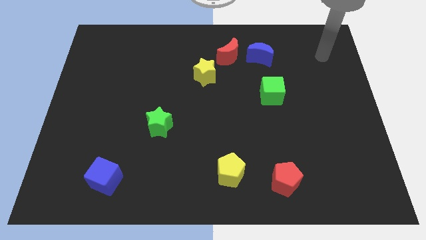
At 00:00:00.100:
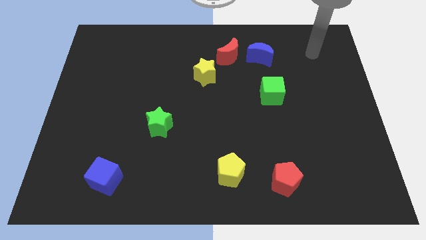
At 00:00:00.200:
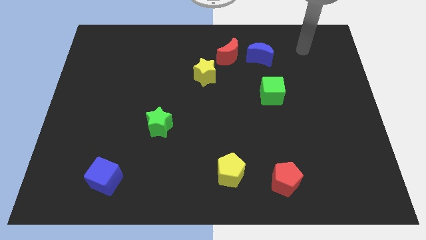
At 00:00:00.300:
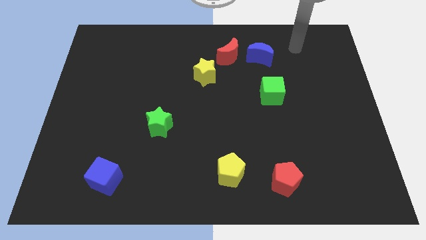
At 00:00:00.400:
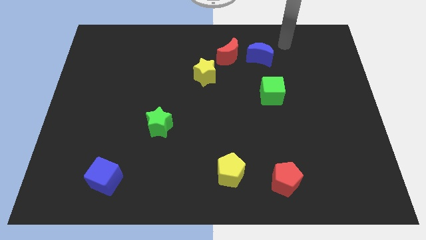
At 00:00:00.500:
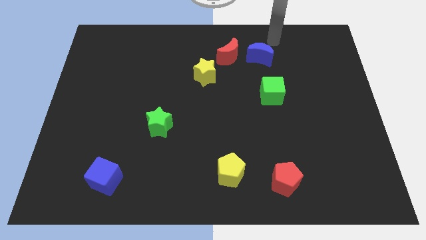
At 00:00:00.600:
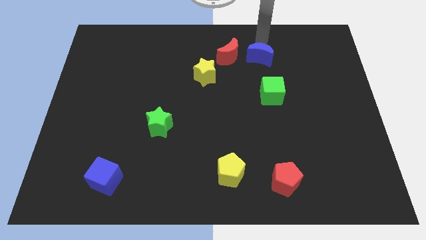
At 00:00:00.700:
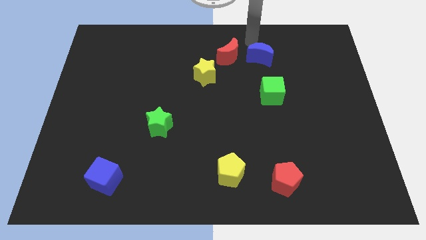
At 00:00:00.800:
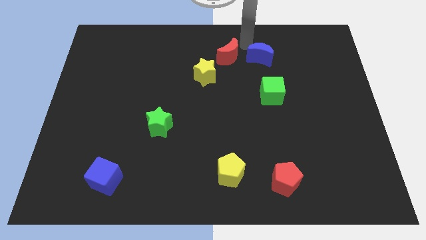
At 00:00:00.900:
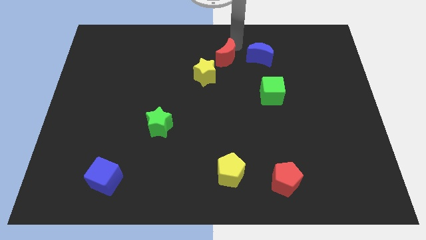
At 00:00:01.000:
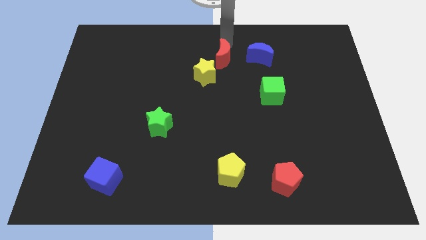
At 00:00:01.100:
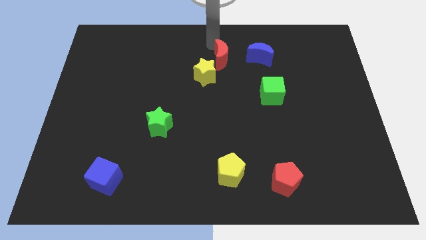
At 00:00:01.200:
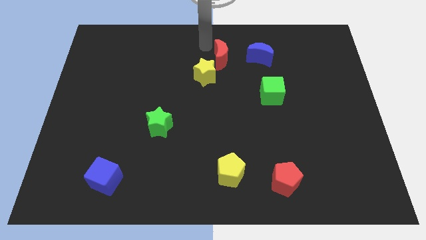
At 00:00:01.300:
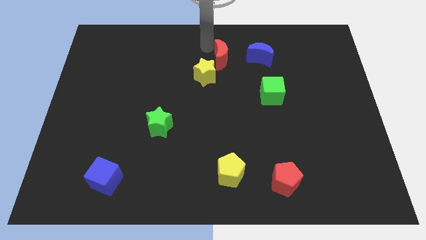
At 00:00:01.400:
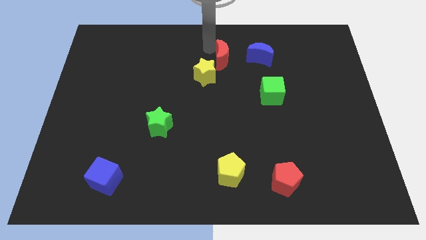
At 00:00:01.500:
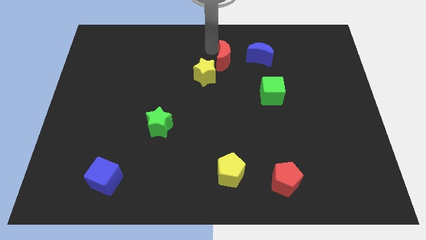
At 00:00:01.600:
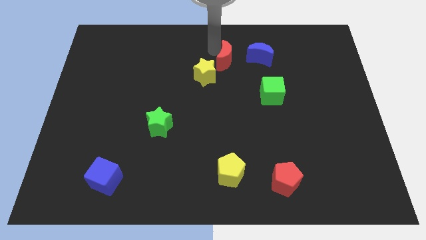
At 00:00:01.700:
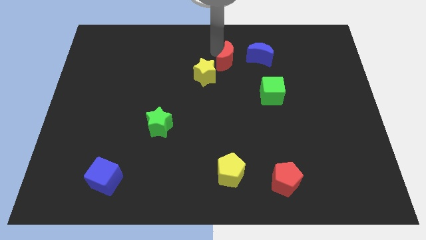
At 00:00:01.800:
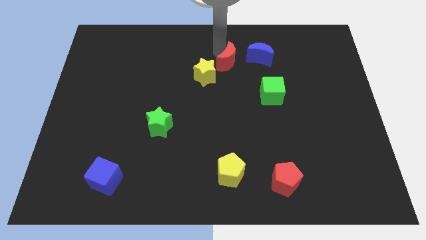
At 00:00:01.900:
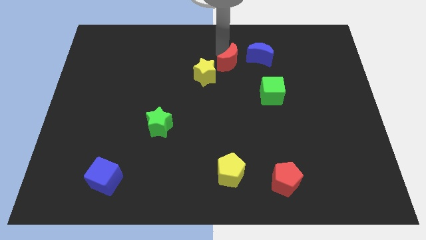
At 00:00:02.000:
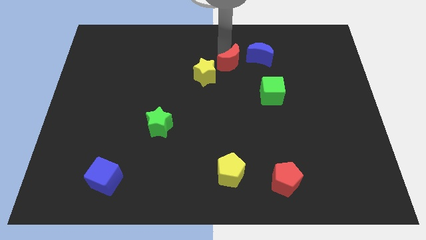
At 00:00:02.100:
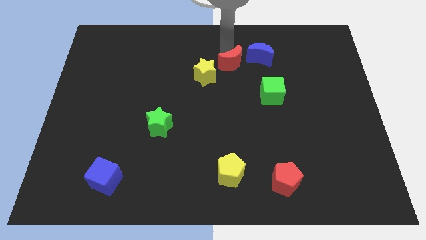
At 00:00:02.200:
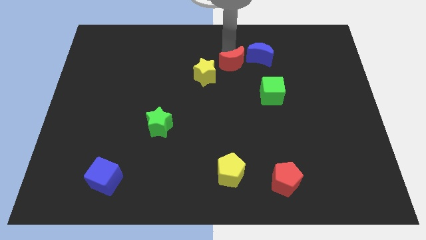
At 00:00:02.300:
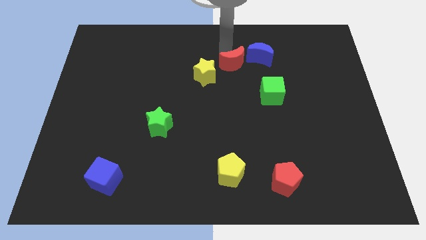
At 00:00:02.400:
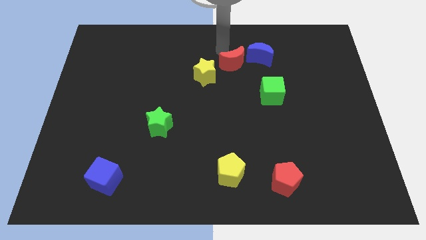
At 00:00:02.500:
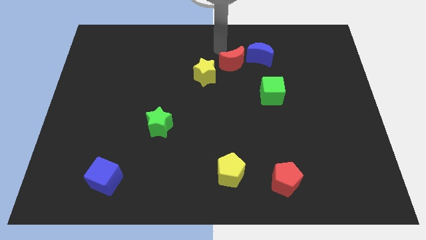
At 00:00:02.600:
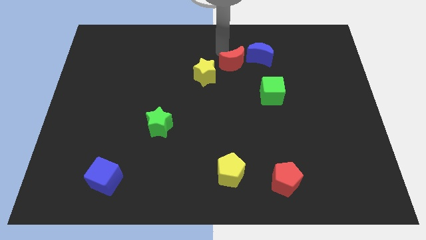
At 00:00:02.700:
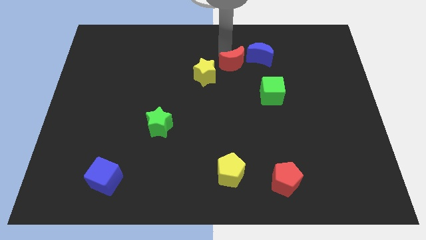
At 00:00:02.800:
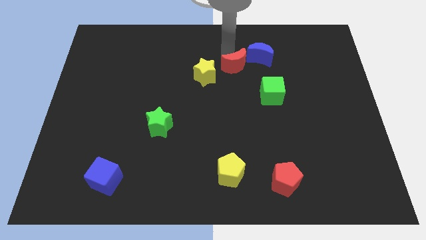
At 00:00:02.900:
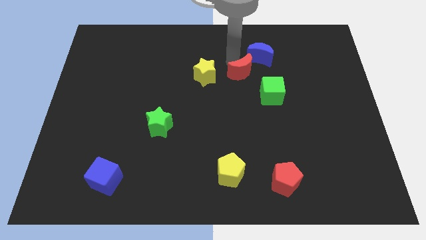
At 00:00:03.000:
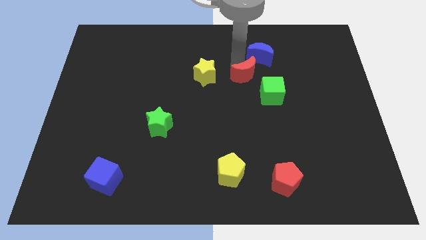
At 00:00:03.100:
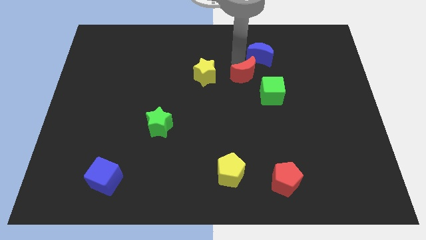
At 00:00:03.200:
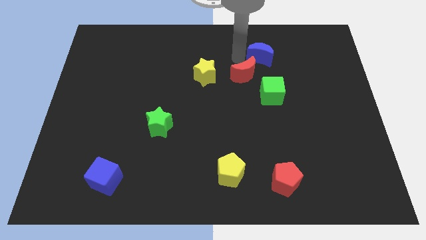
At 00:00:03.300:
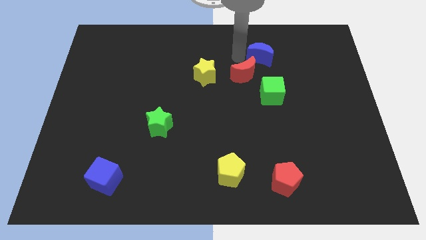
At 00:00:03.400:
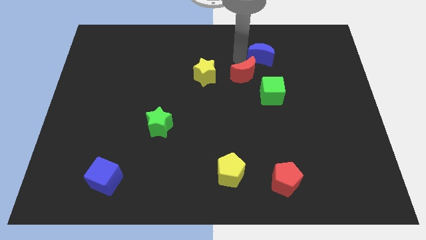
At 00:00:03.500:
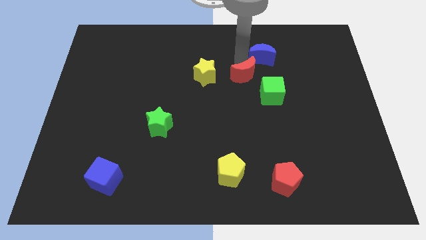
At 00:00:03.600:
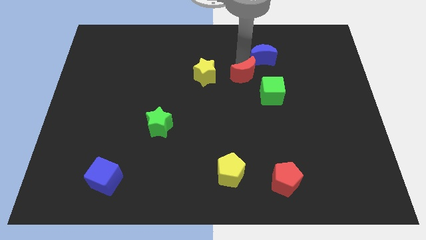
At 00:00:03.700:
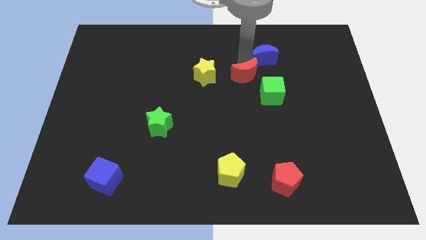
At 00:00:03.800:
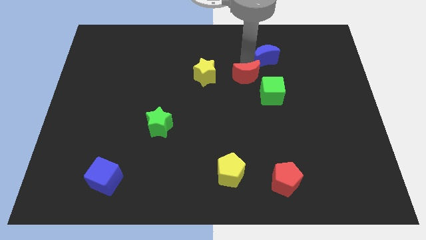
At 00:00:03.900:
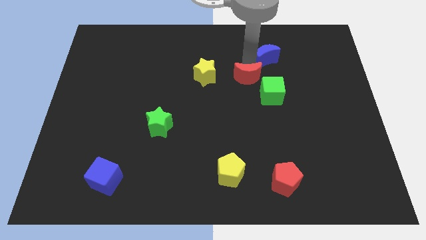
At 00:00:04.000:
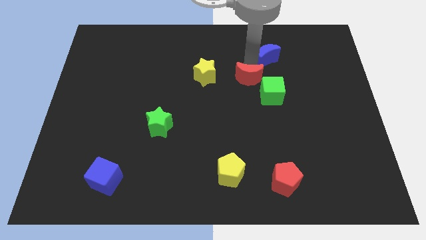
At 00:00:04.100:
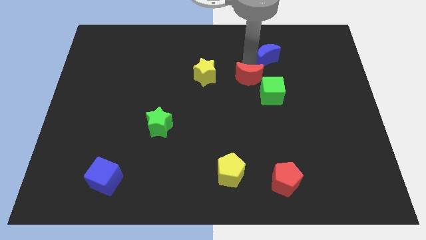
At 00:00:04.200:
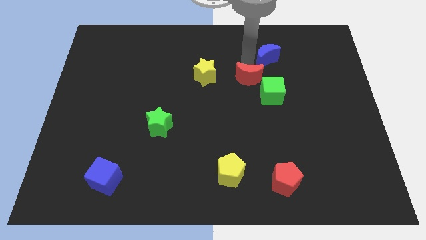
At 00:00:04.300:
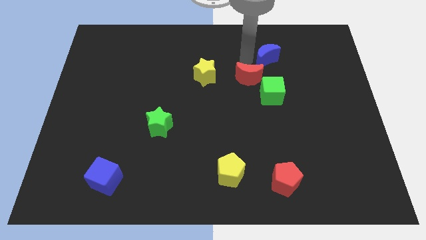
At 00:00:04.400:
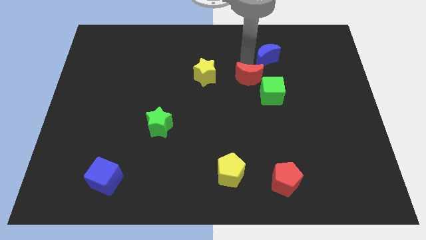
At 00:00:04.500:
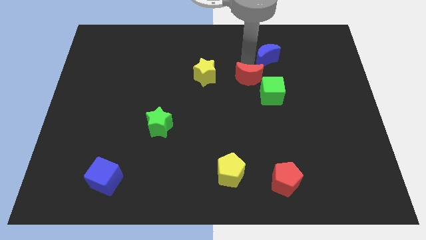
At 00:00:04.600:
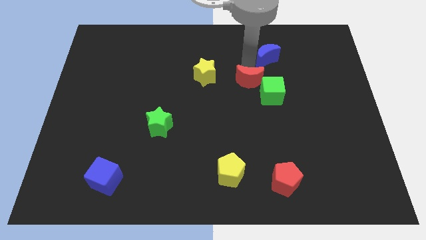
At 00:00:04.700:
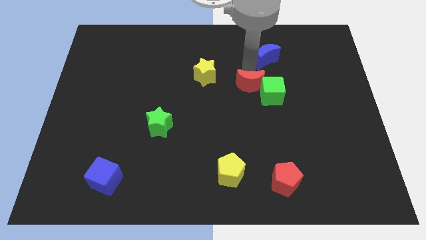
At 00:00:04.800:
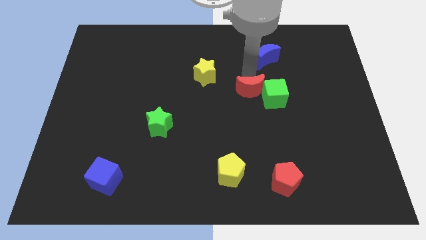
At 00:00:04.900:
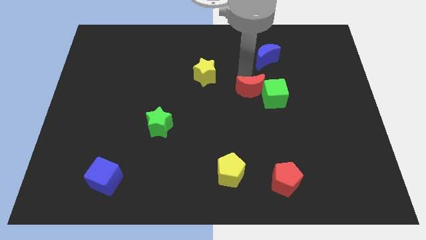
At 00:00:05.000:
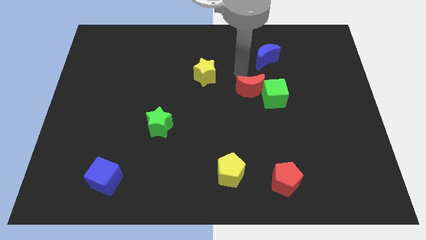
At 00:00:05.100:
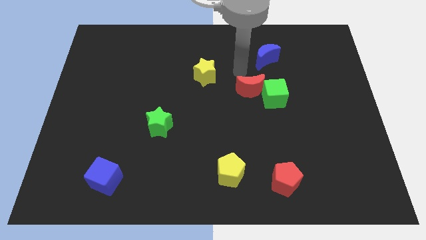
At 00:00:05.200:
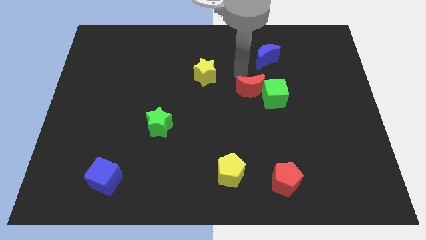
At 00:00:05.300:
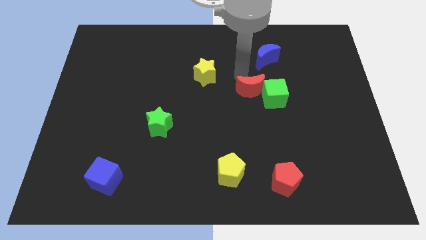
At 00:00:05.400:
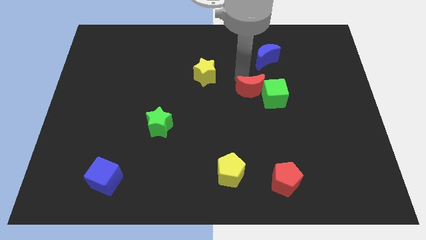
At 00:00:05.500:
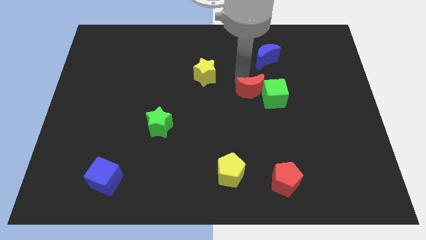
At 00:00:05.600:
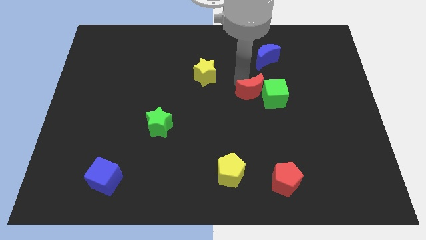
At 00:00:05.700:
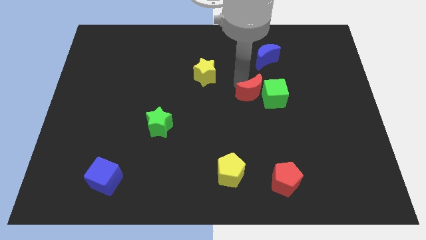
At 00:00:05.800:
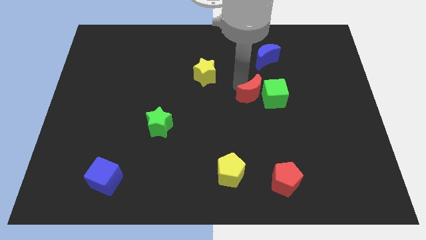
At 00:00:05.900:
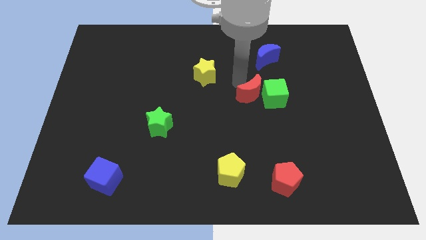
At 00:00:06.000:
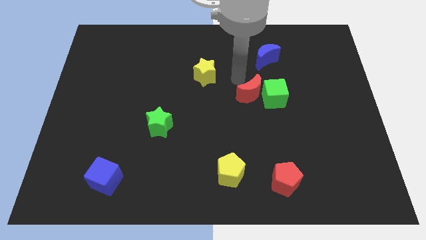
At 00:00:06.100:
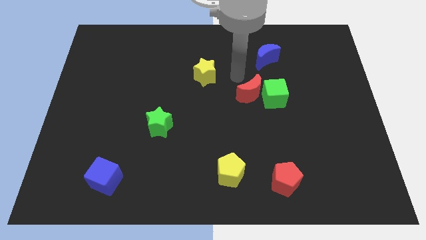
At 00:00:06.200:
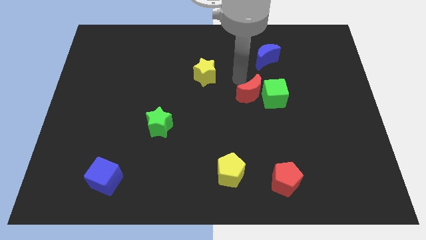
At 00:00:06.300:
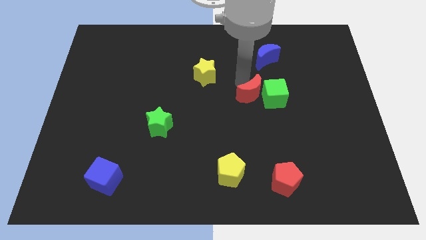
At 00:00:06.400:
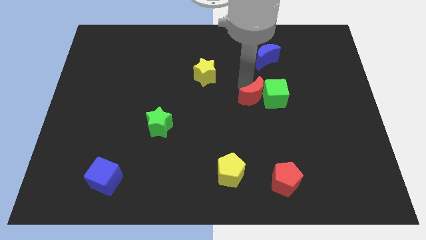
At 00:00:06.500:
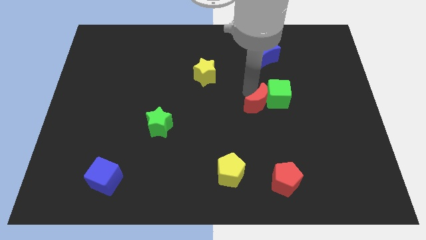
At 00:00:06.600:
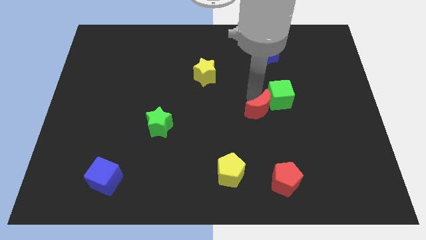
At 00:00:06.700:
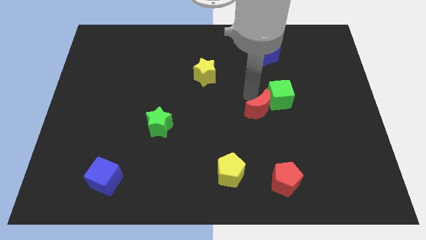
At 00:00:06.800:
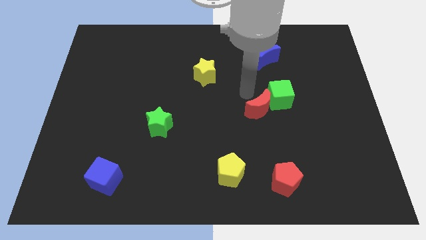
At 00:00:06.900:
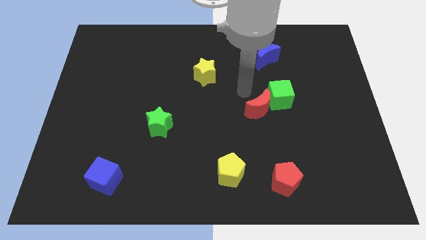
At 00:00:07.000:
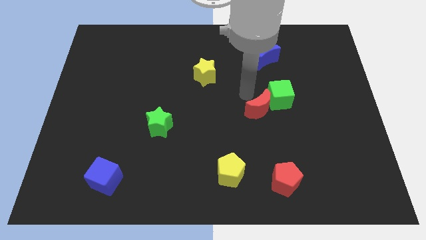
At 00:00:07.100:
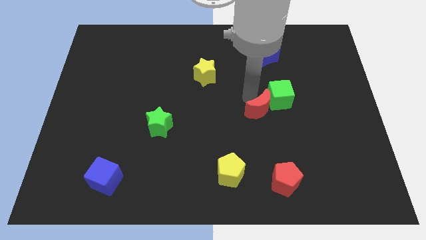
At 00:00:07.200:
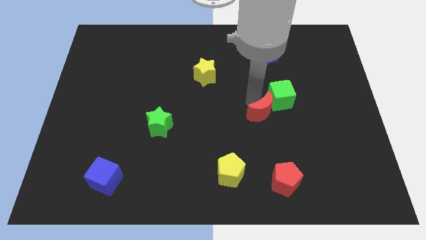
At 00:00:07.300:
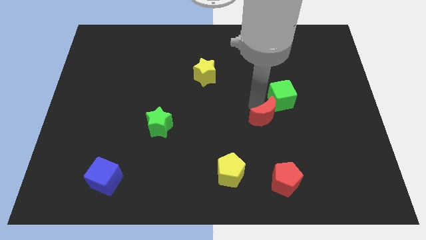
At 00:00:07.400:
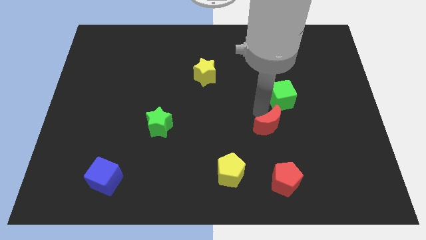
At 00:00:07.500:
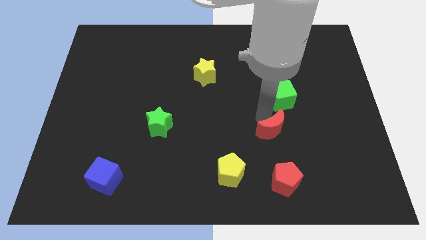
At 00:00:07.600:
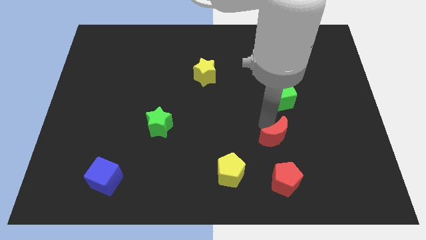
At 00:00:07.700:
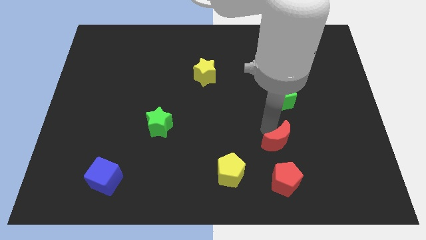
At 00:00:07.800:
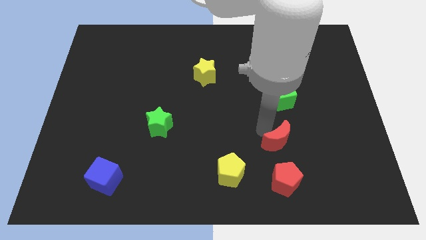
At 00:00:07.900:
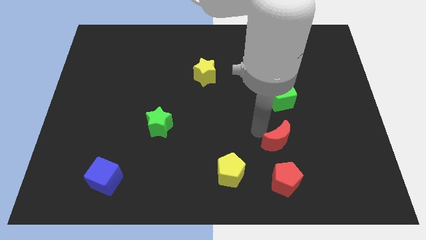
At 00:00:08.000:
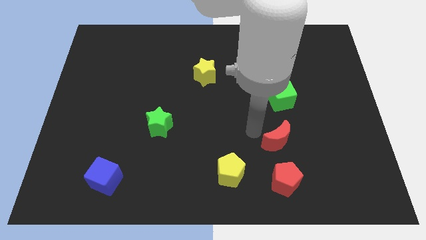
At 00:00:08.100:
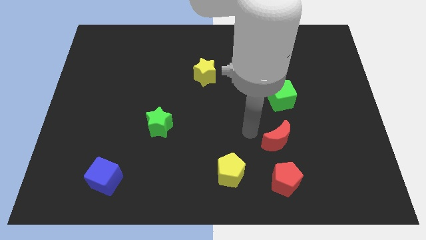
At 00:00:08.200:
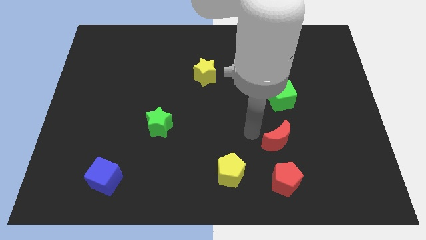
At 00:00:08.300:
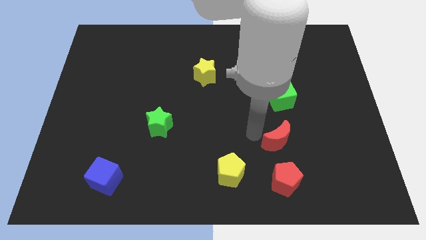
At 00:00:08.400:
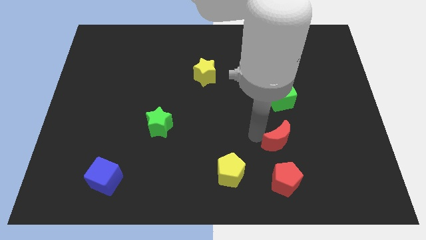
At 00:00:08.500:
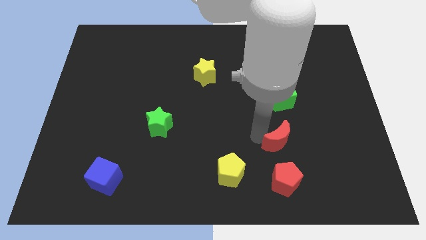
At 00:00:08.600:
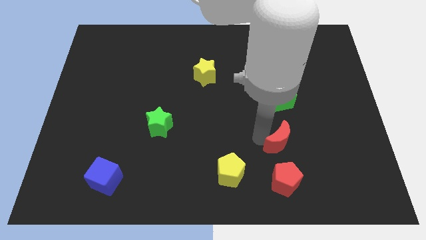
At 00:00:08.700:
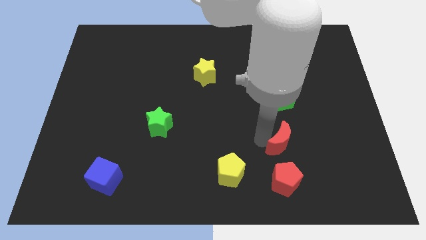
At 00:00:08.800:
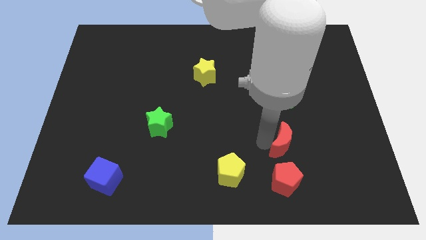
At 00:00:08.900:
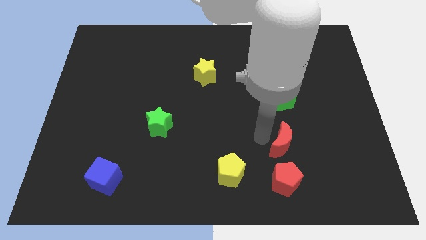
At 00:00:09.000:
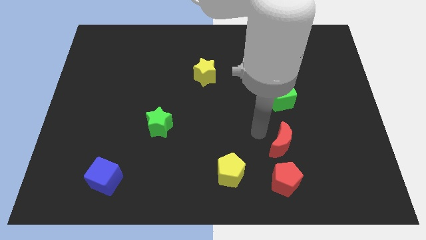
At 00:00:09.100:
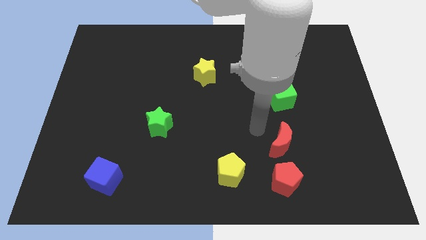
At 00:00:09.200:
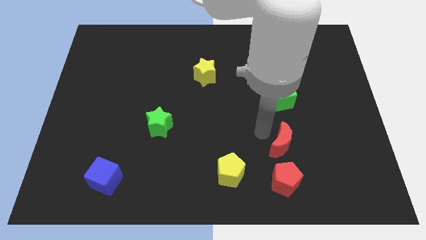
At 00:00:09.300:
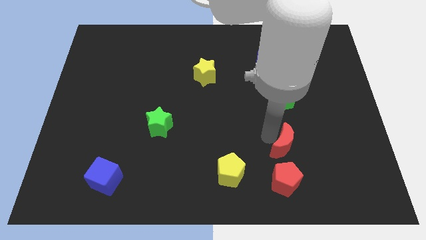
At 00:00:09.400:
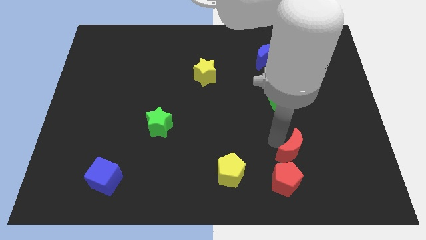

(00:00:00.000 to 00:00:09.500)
slide the red moon to the top right side of the red pentagon
